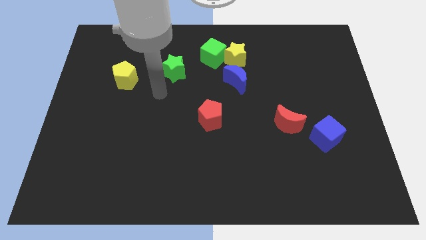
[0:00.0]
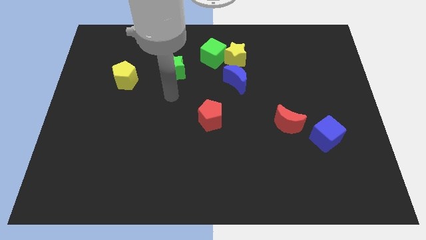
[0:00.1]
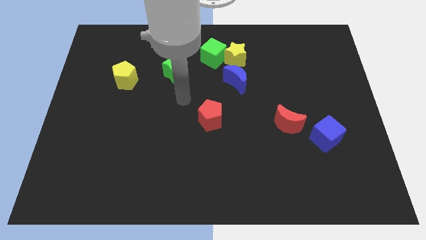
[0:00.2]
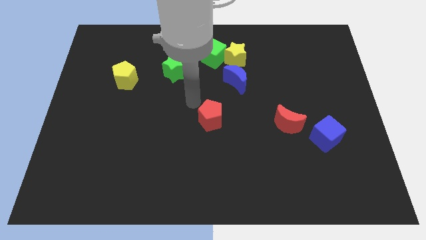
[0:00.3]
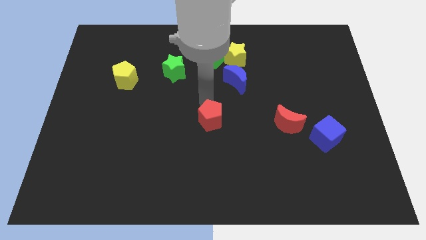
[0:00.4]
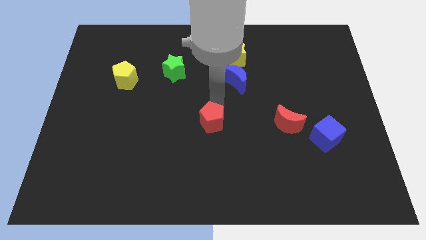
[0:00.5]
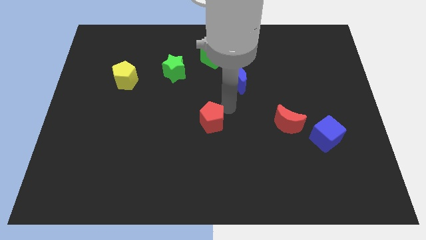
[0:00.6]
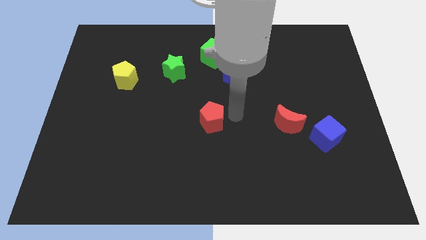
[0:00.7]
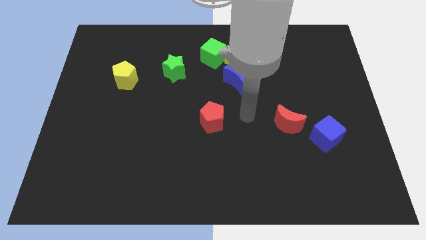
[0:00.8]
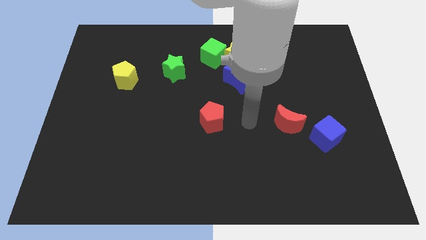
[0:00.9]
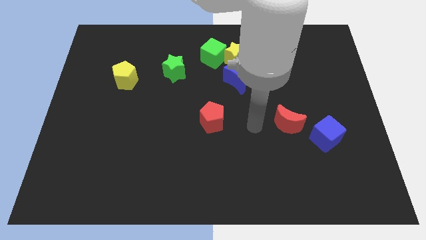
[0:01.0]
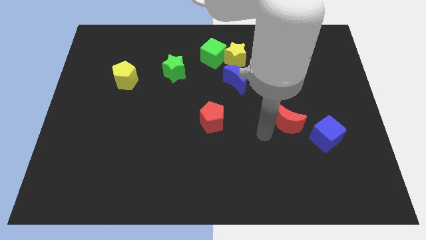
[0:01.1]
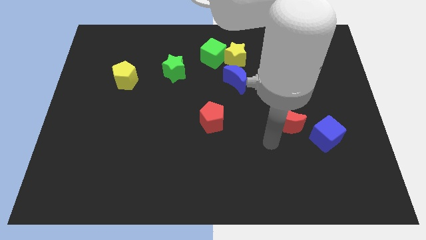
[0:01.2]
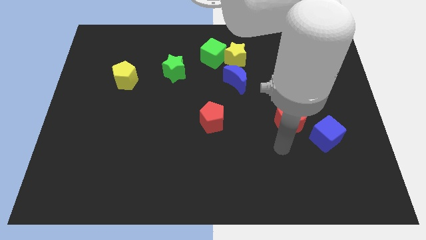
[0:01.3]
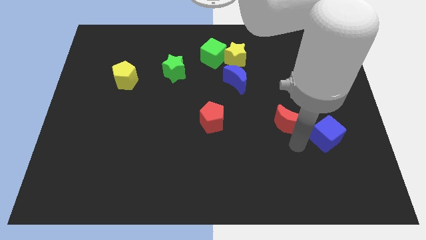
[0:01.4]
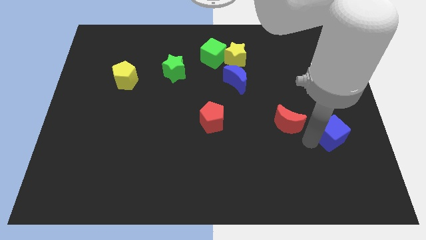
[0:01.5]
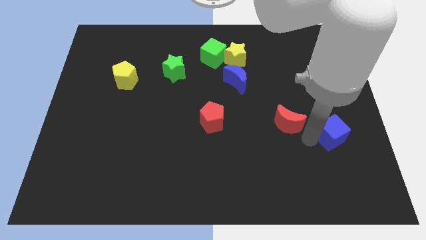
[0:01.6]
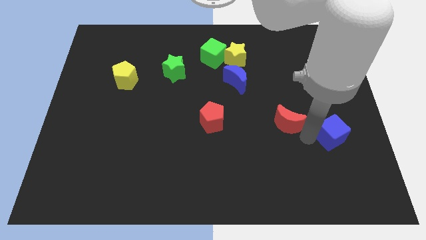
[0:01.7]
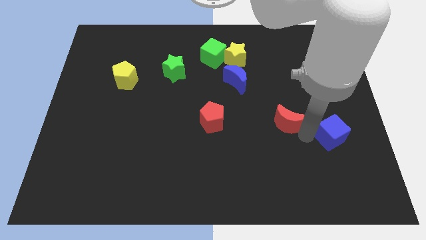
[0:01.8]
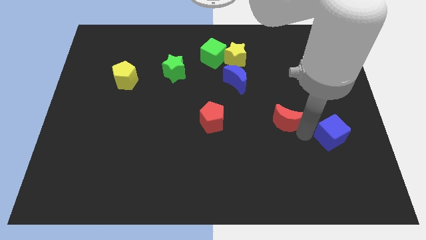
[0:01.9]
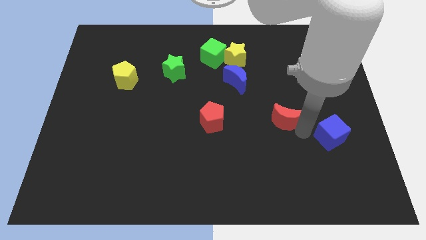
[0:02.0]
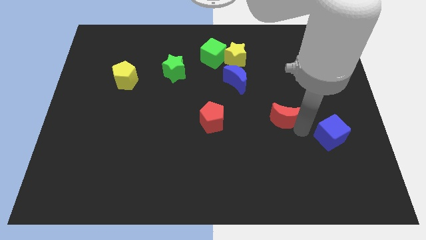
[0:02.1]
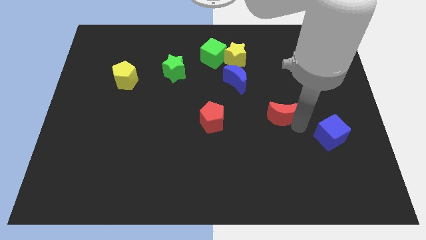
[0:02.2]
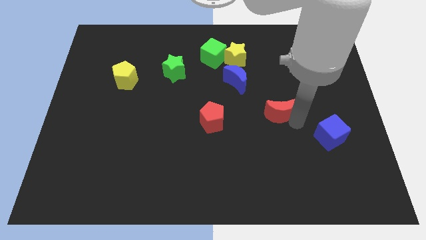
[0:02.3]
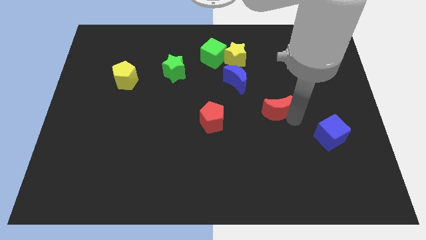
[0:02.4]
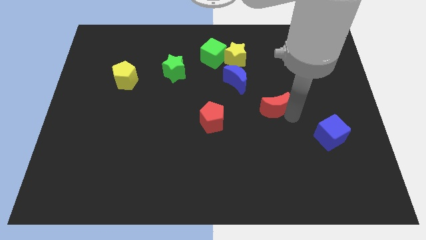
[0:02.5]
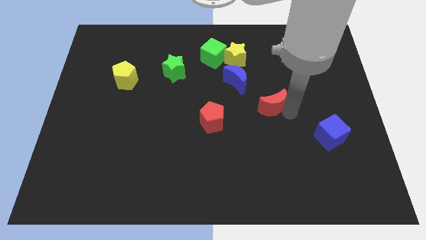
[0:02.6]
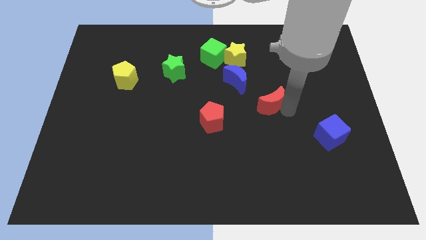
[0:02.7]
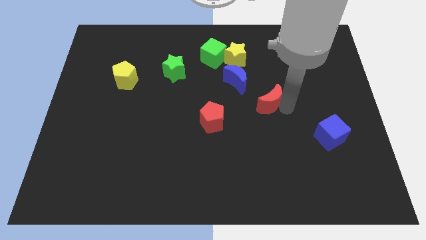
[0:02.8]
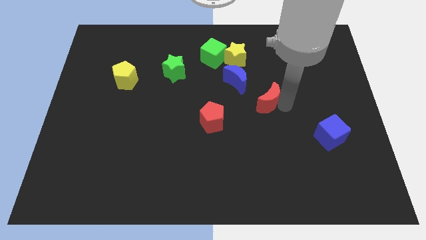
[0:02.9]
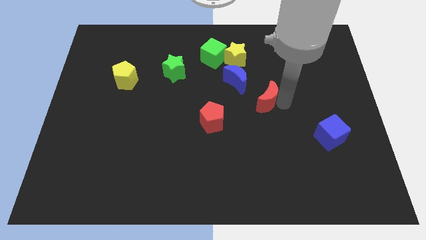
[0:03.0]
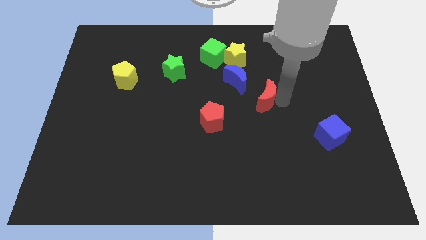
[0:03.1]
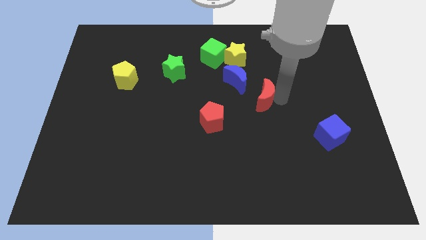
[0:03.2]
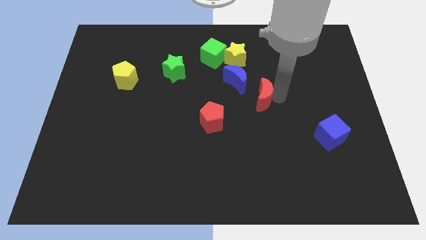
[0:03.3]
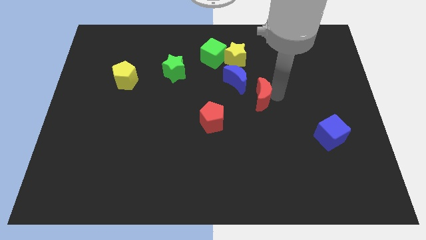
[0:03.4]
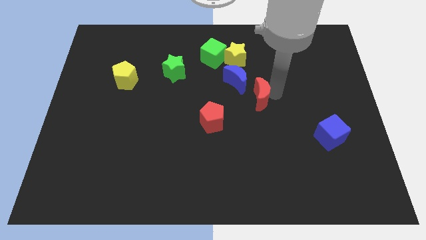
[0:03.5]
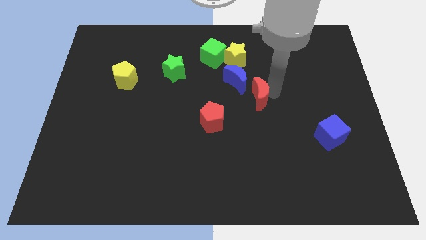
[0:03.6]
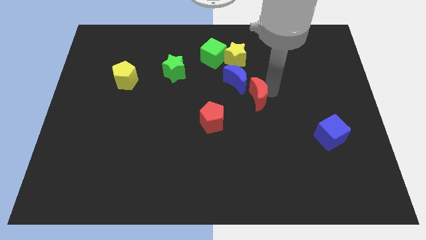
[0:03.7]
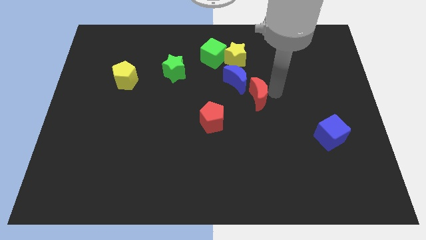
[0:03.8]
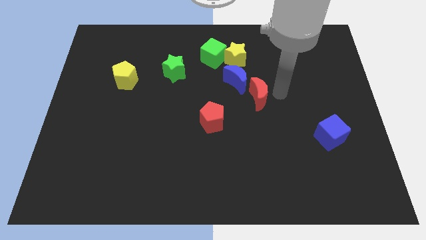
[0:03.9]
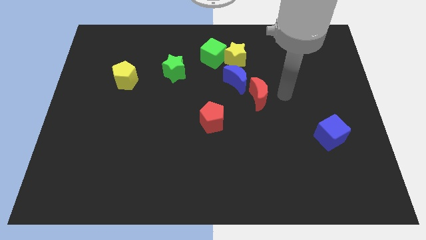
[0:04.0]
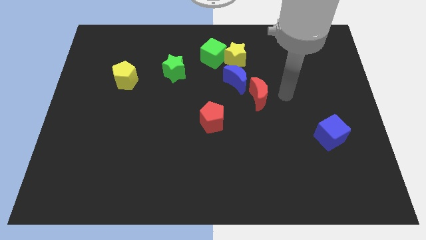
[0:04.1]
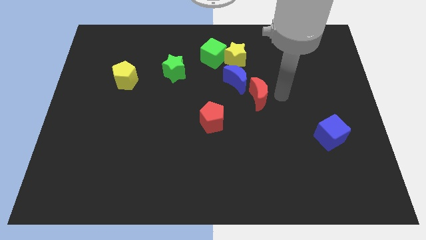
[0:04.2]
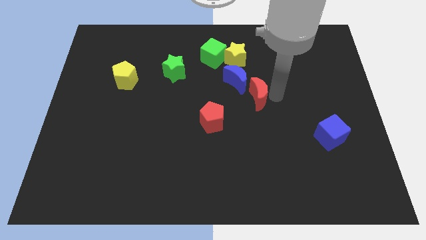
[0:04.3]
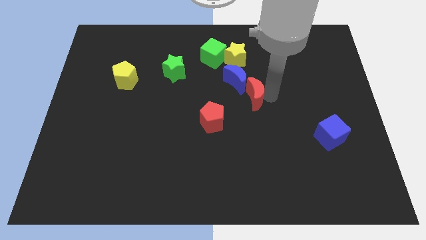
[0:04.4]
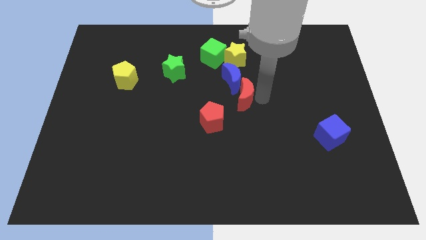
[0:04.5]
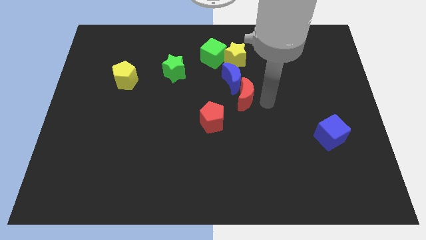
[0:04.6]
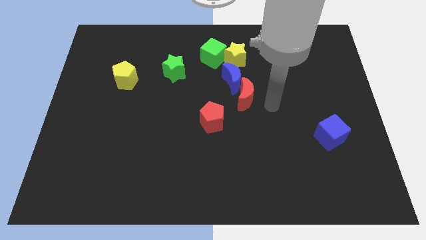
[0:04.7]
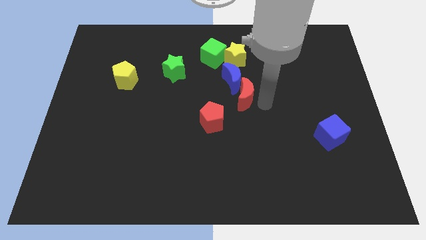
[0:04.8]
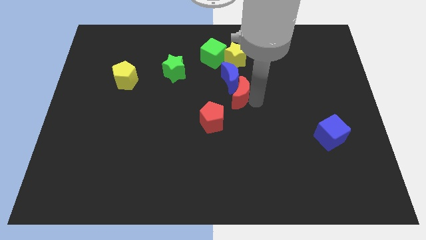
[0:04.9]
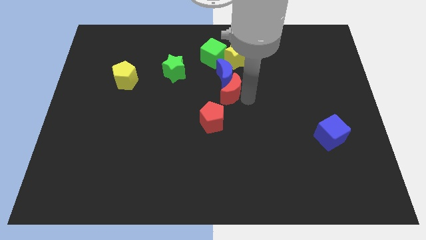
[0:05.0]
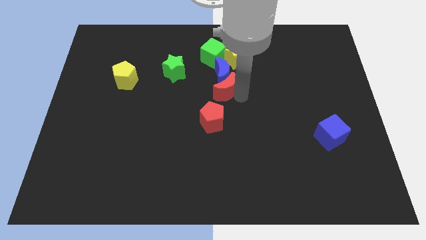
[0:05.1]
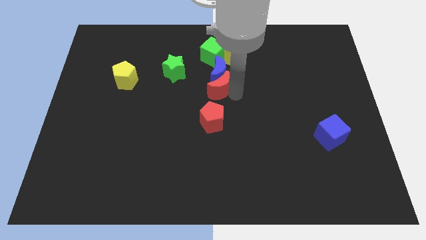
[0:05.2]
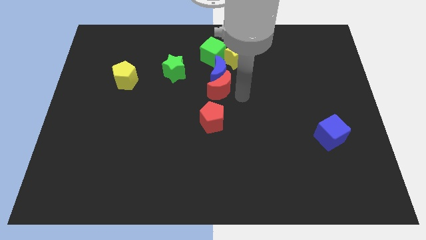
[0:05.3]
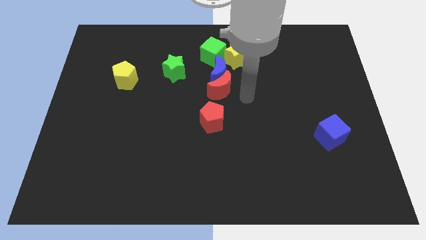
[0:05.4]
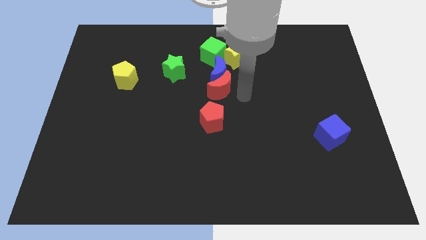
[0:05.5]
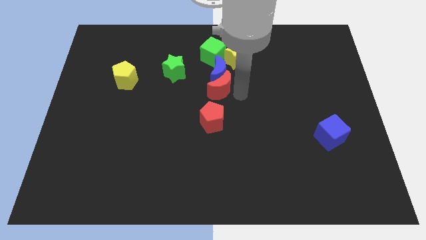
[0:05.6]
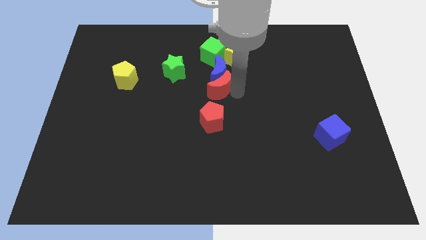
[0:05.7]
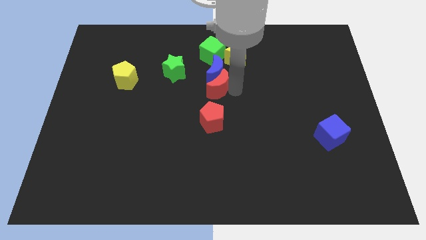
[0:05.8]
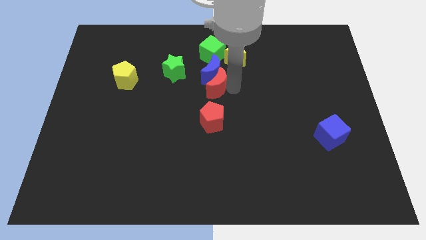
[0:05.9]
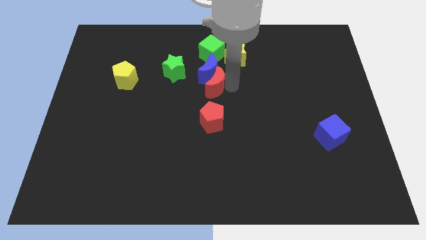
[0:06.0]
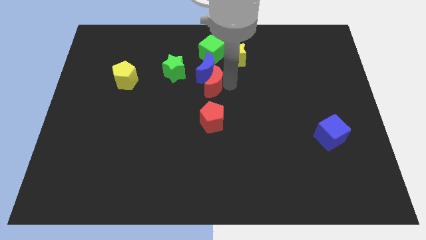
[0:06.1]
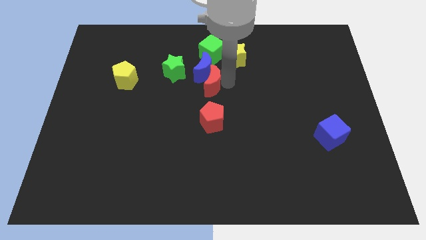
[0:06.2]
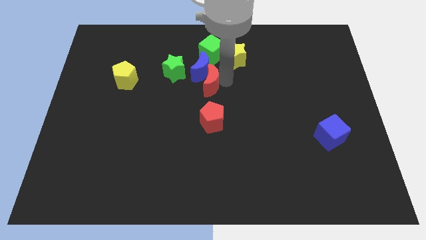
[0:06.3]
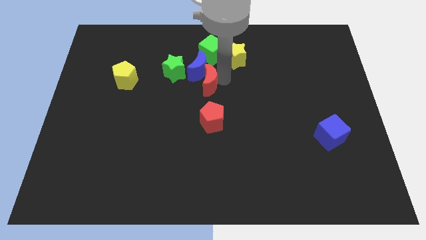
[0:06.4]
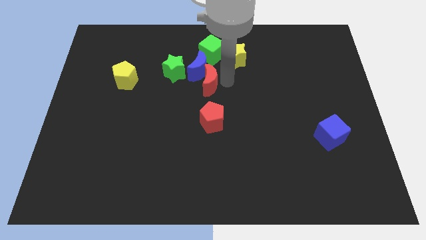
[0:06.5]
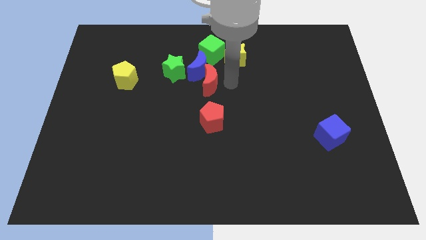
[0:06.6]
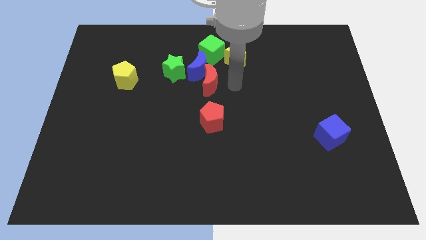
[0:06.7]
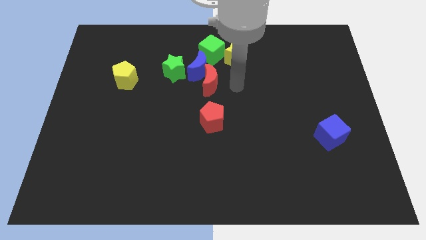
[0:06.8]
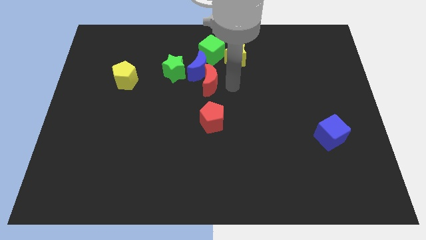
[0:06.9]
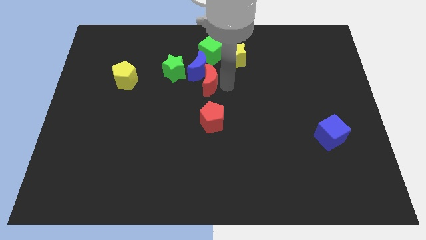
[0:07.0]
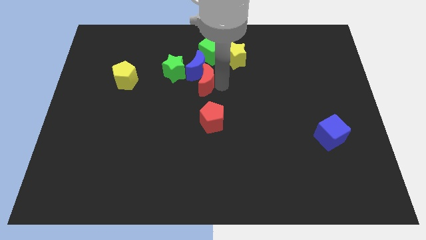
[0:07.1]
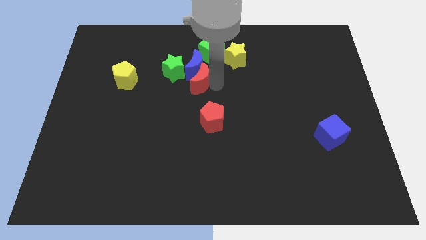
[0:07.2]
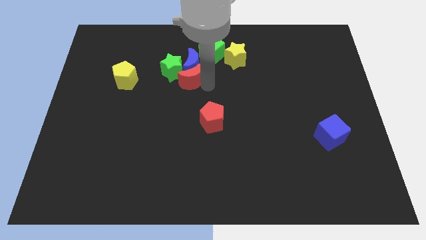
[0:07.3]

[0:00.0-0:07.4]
slide the red moon to the green star
